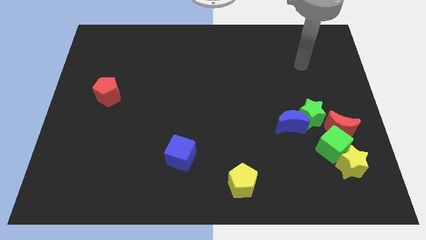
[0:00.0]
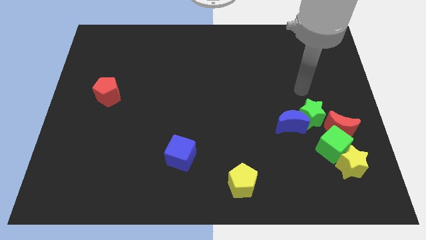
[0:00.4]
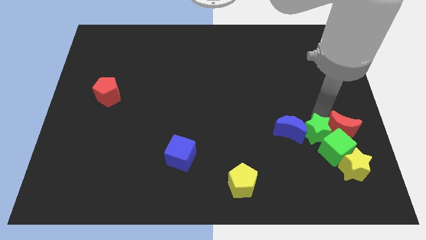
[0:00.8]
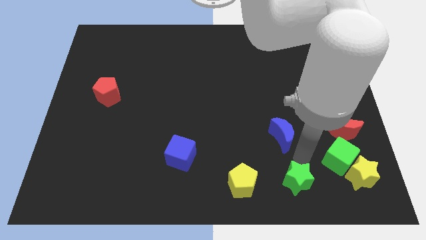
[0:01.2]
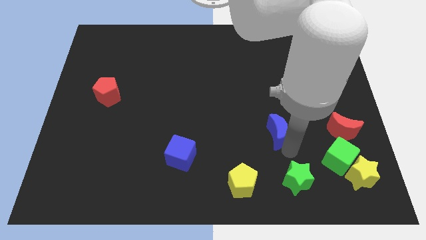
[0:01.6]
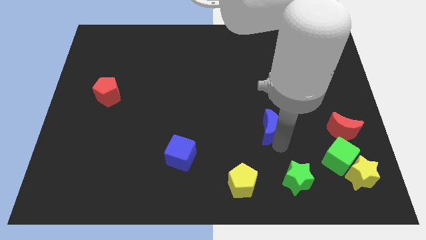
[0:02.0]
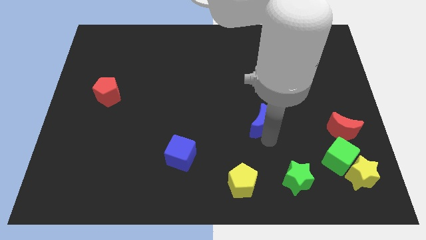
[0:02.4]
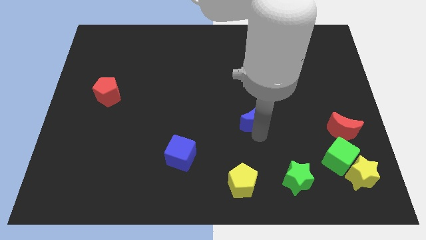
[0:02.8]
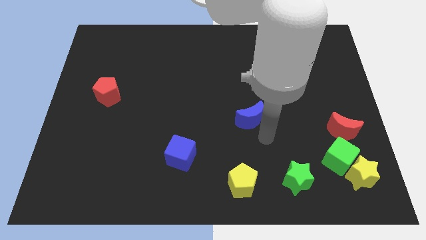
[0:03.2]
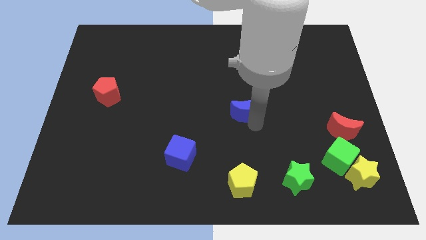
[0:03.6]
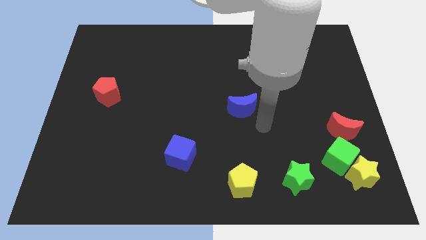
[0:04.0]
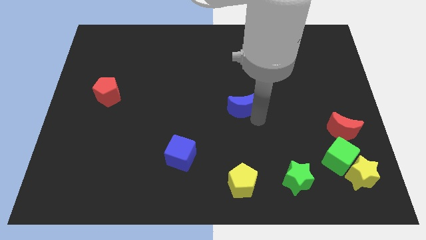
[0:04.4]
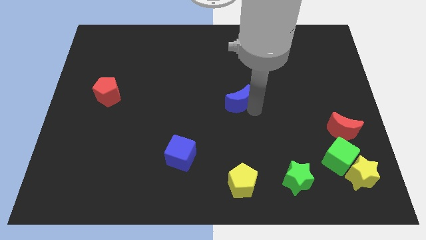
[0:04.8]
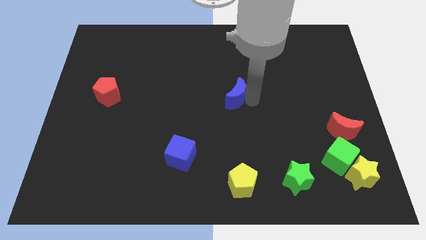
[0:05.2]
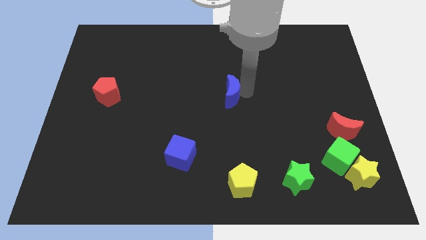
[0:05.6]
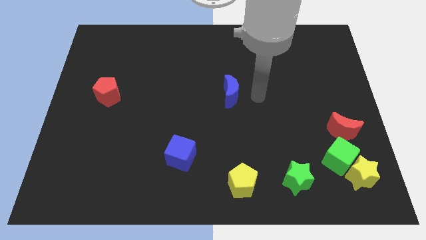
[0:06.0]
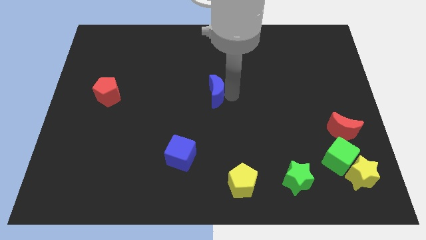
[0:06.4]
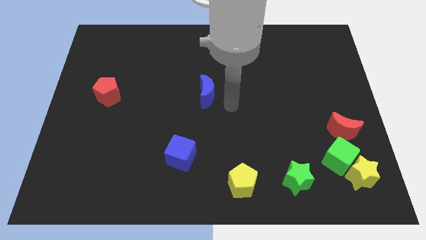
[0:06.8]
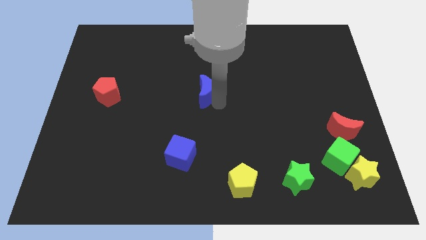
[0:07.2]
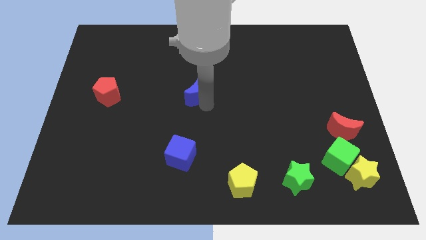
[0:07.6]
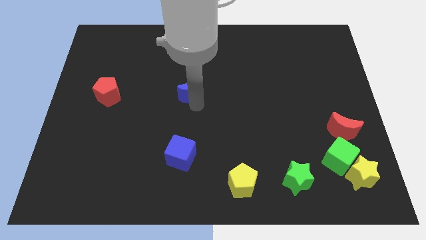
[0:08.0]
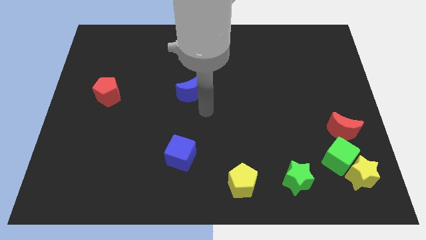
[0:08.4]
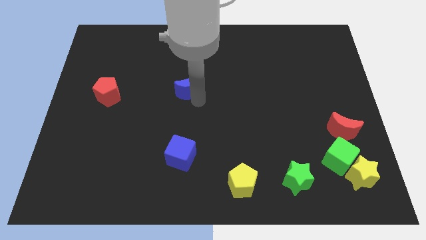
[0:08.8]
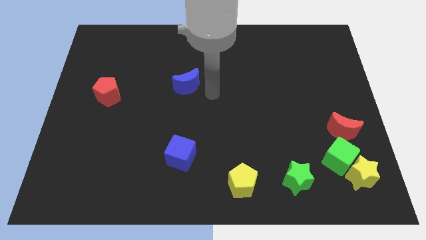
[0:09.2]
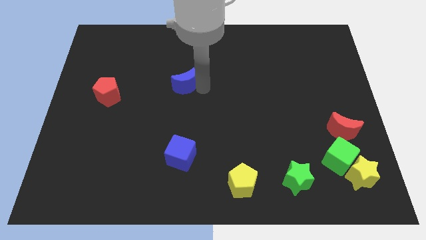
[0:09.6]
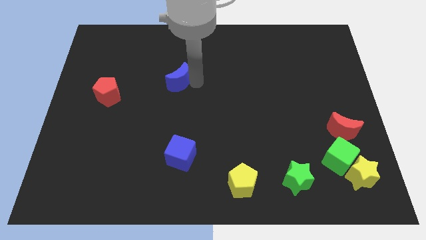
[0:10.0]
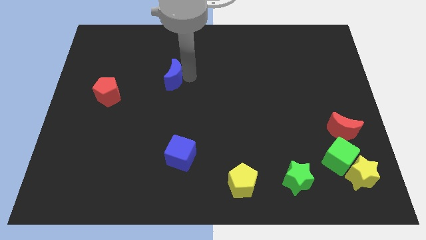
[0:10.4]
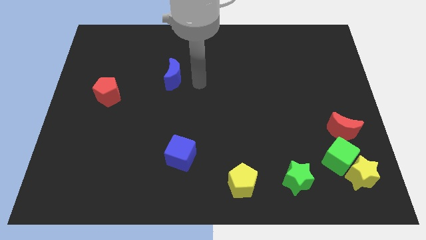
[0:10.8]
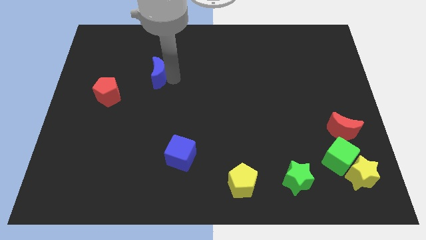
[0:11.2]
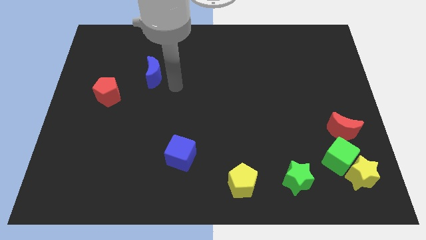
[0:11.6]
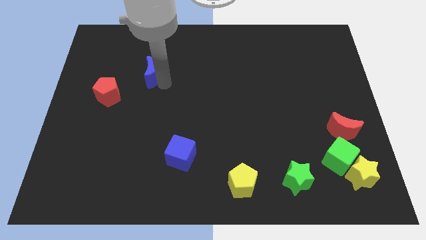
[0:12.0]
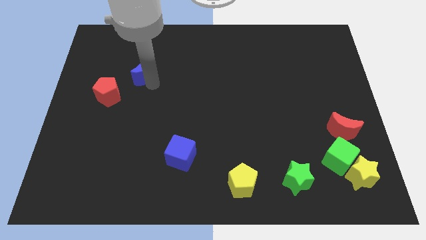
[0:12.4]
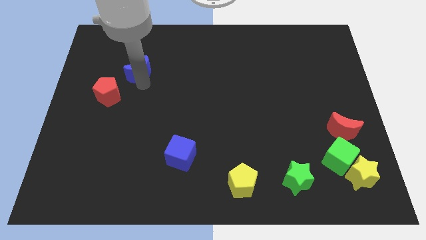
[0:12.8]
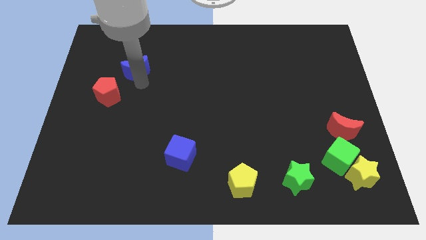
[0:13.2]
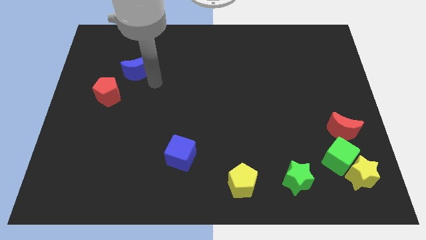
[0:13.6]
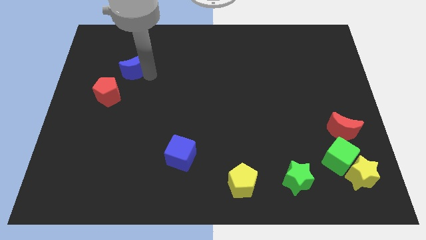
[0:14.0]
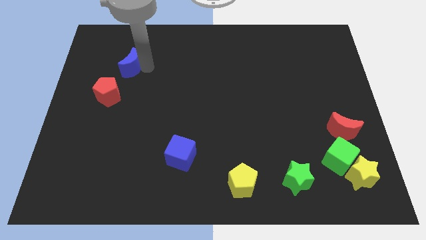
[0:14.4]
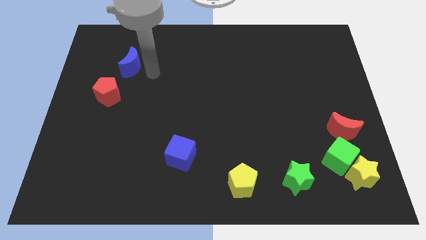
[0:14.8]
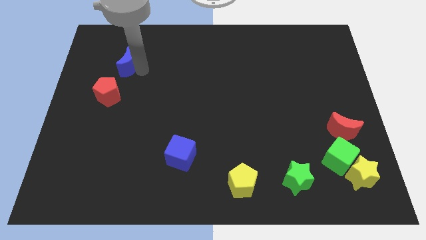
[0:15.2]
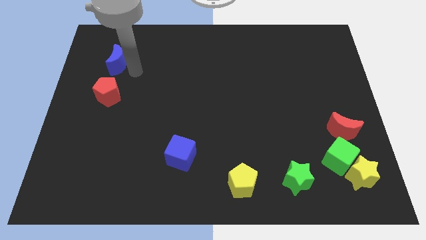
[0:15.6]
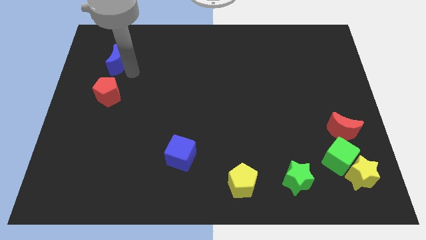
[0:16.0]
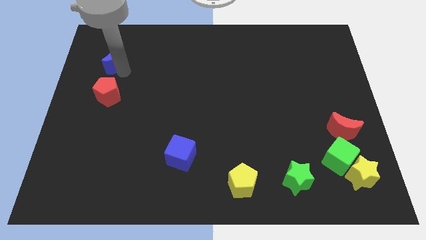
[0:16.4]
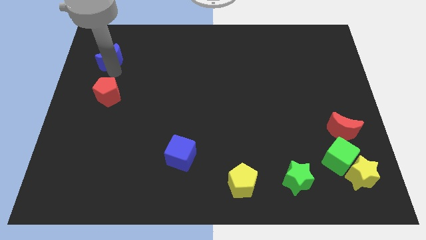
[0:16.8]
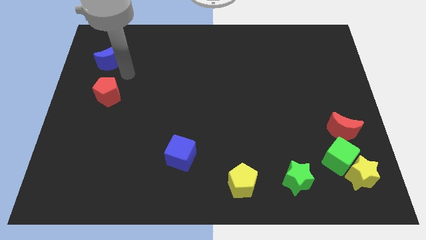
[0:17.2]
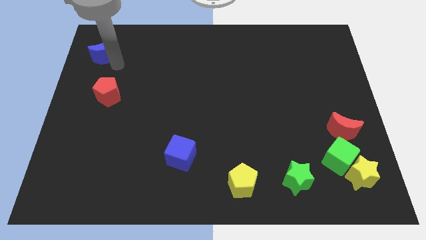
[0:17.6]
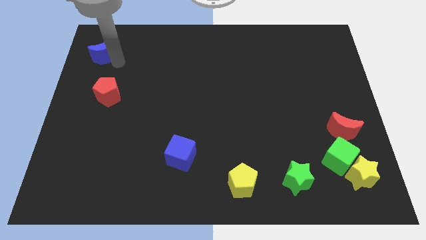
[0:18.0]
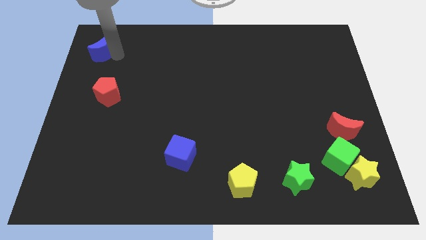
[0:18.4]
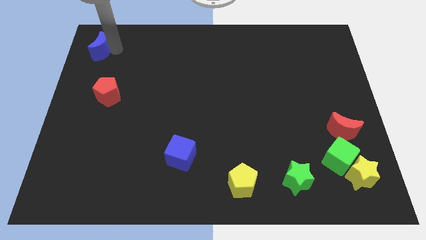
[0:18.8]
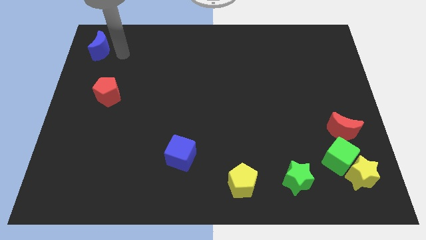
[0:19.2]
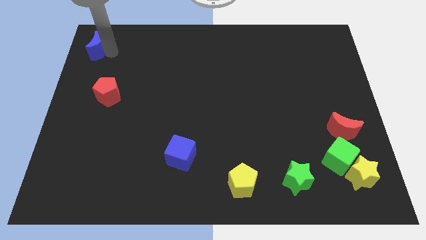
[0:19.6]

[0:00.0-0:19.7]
slide the blue moon to the top left of the board

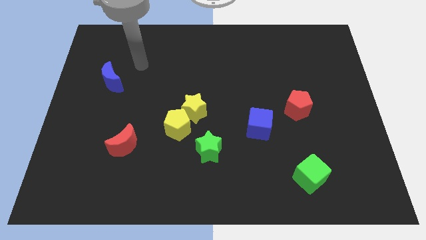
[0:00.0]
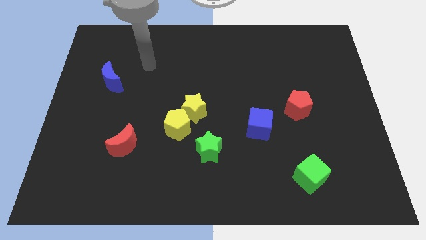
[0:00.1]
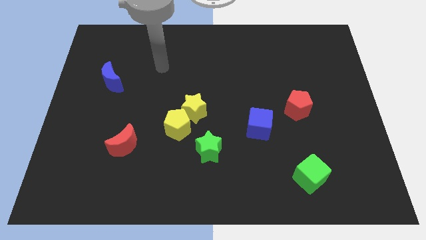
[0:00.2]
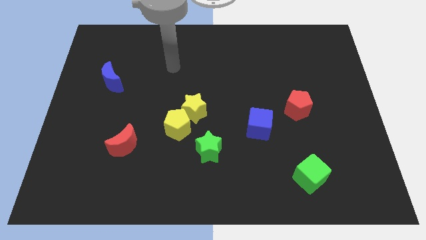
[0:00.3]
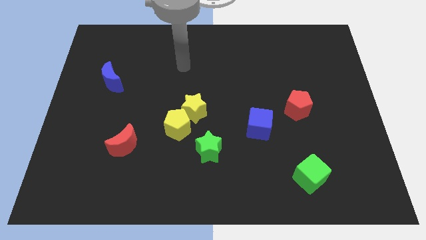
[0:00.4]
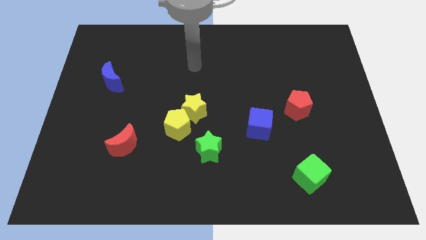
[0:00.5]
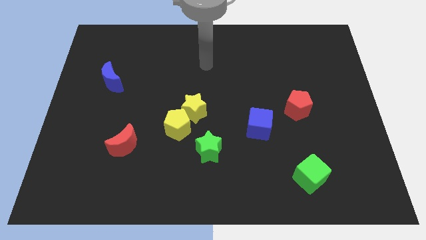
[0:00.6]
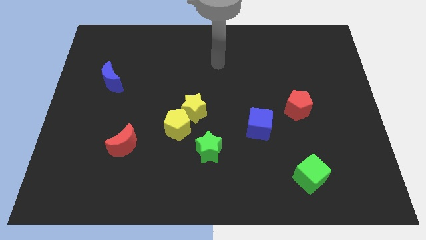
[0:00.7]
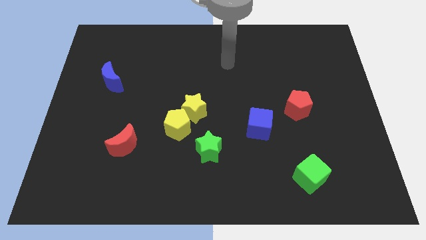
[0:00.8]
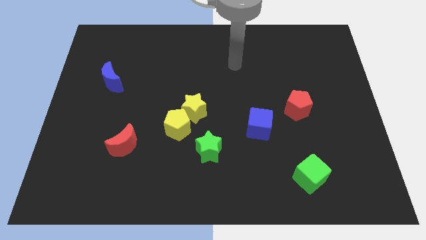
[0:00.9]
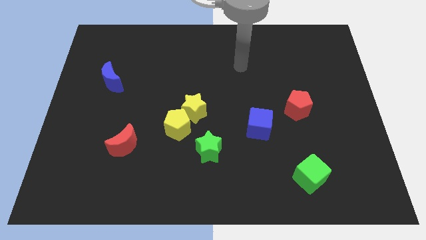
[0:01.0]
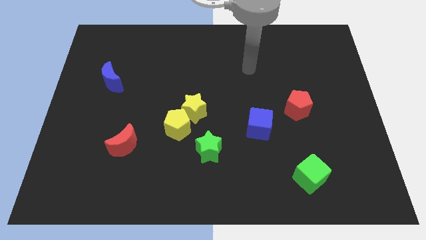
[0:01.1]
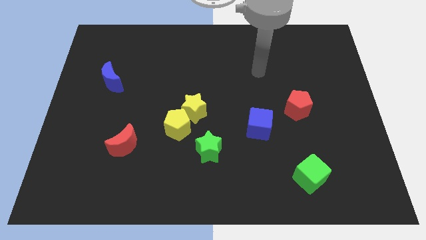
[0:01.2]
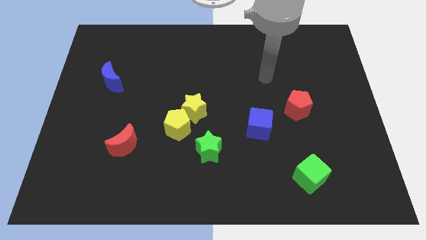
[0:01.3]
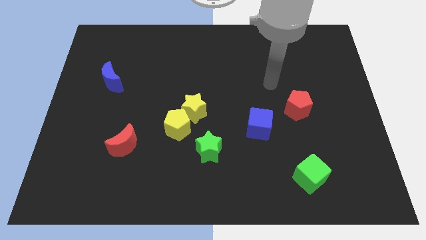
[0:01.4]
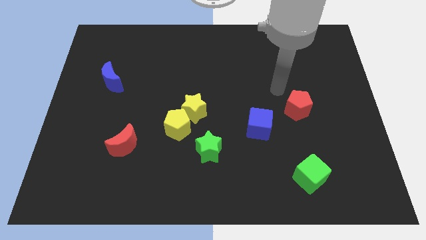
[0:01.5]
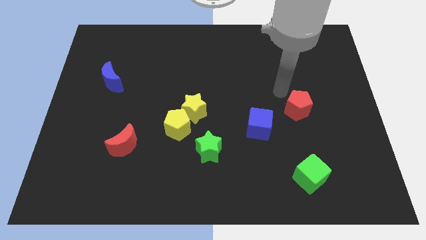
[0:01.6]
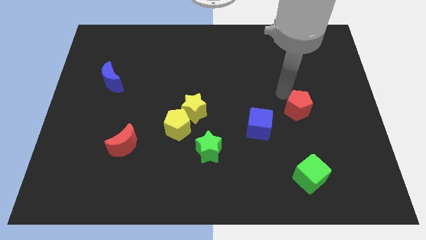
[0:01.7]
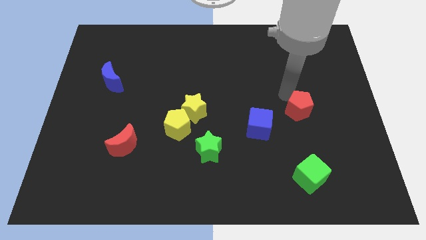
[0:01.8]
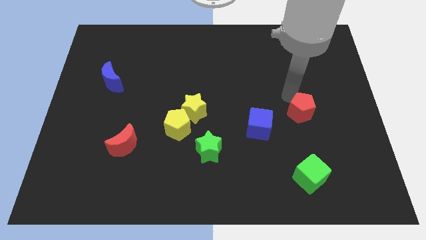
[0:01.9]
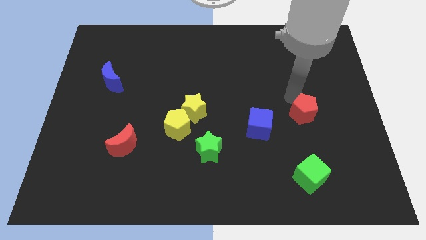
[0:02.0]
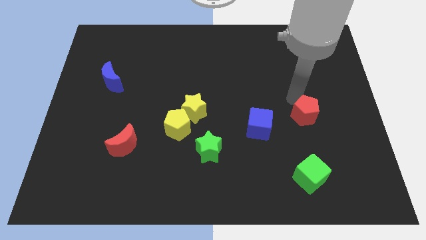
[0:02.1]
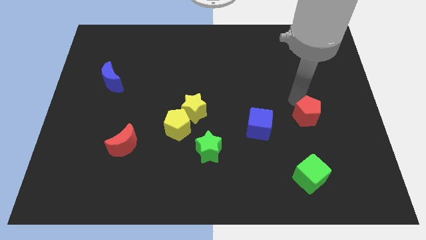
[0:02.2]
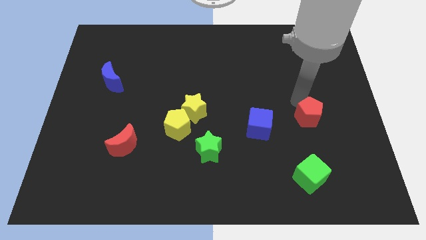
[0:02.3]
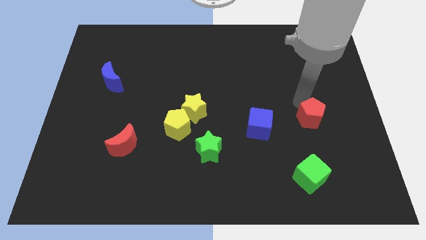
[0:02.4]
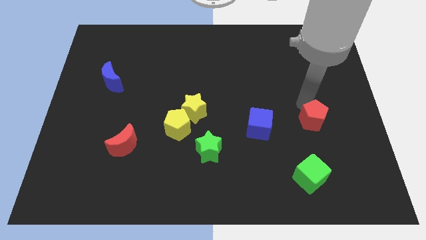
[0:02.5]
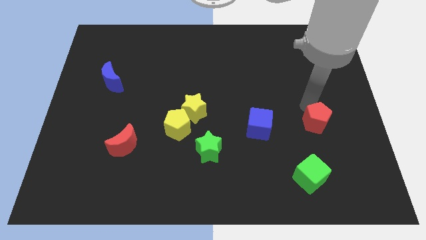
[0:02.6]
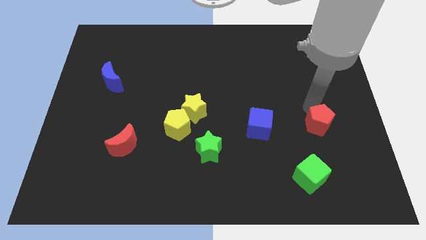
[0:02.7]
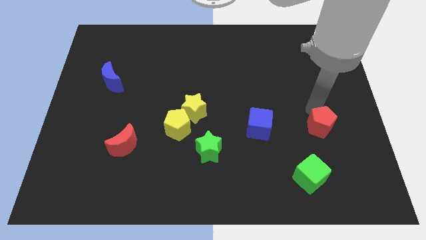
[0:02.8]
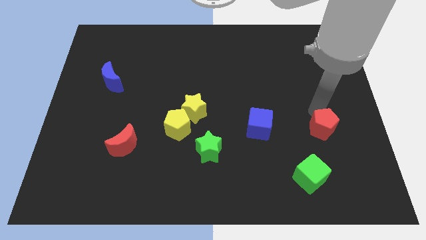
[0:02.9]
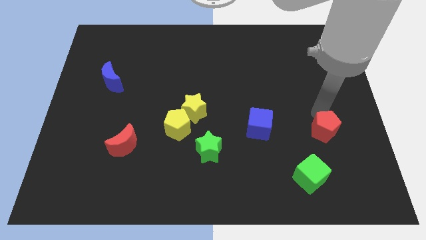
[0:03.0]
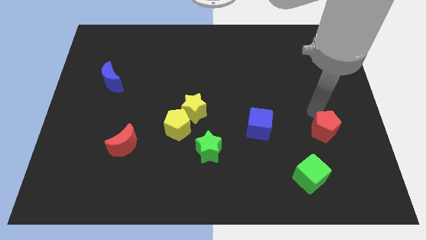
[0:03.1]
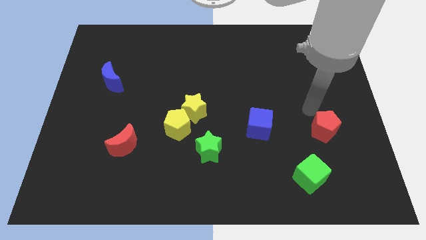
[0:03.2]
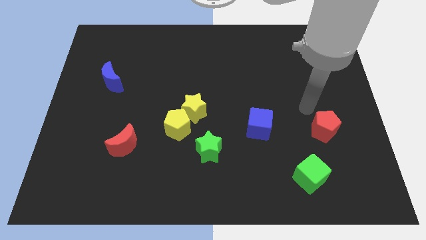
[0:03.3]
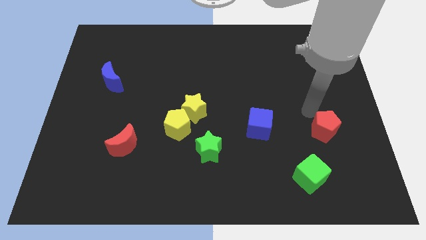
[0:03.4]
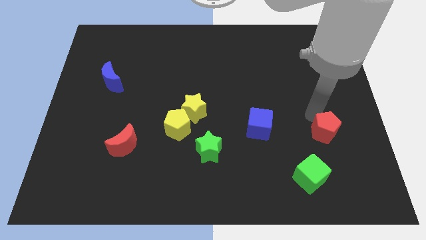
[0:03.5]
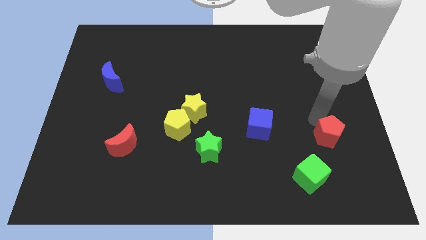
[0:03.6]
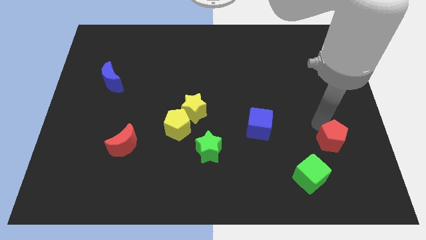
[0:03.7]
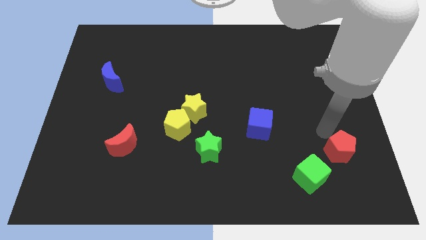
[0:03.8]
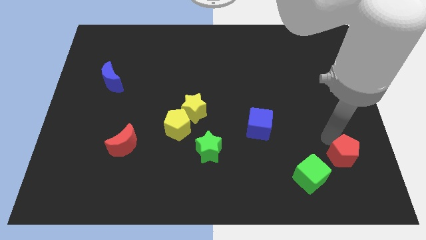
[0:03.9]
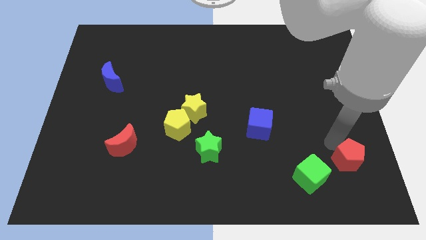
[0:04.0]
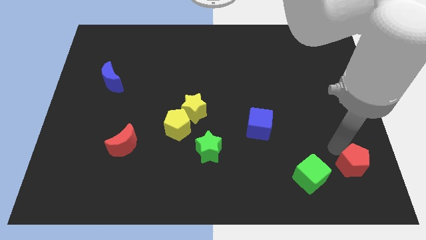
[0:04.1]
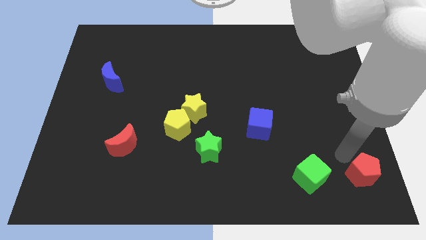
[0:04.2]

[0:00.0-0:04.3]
push the red pentagon to the bottom right of the board
